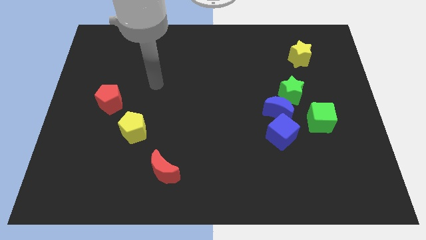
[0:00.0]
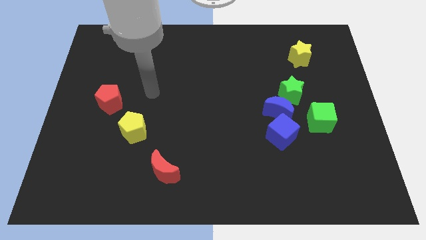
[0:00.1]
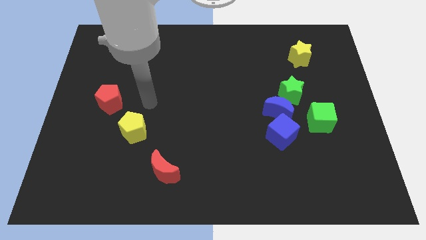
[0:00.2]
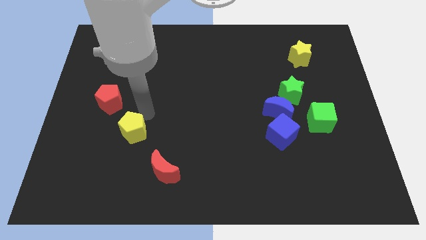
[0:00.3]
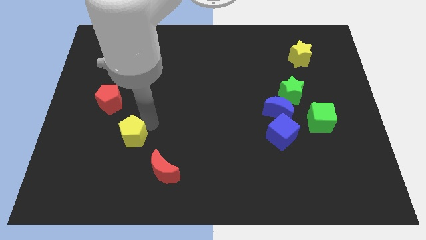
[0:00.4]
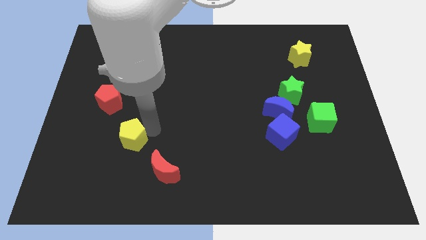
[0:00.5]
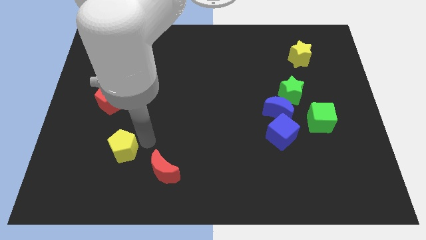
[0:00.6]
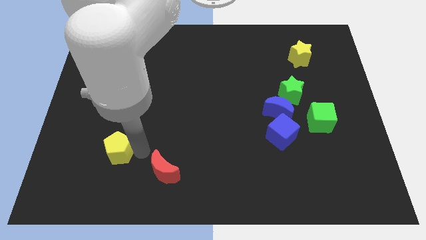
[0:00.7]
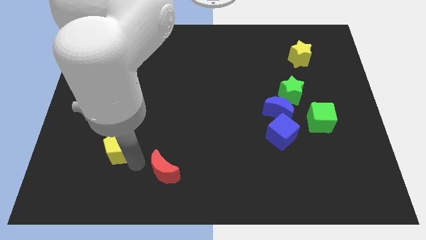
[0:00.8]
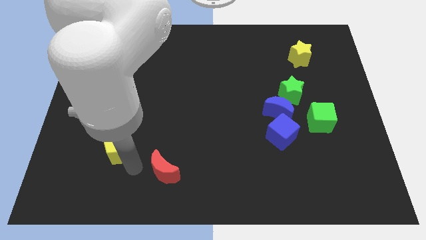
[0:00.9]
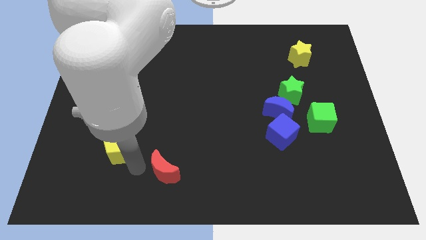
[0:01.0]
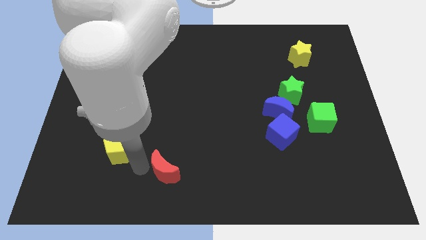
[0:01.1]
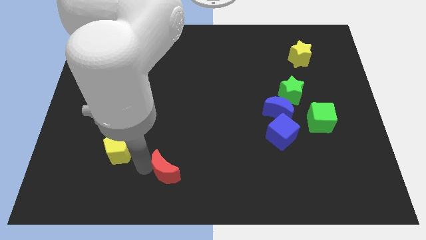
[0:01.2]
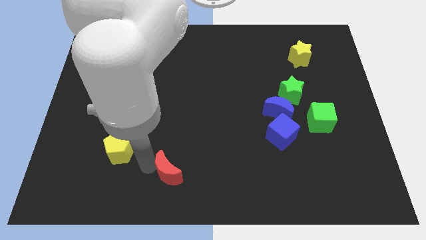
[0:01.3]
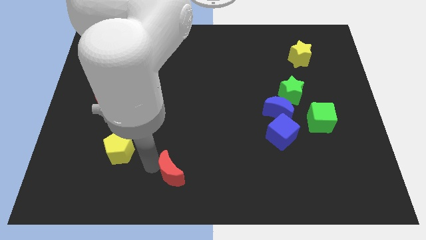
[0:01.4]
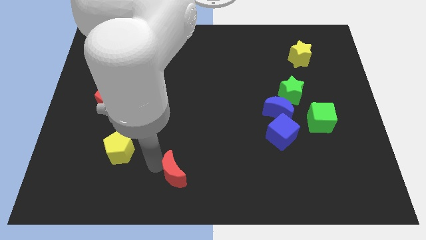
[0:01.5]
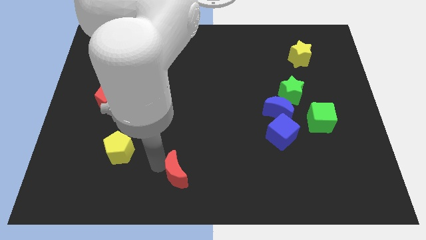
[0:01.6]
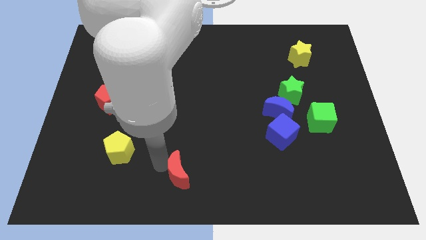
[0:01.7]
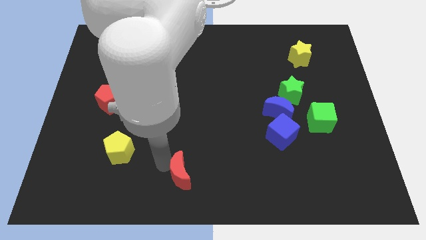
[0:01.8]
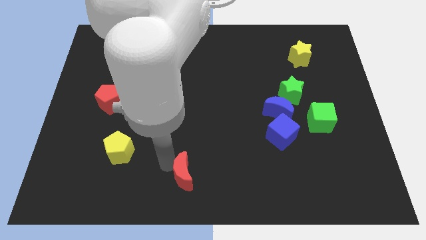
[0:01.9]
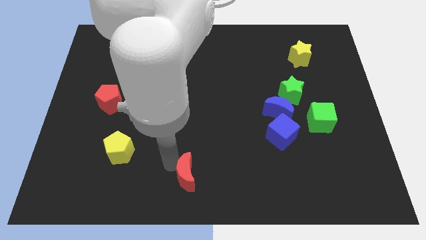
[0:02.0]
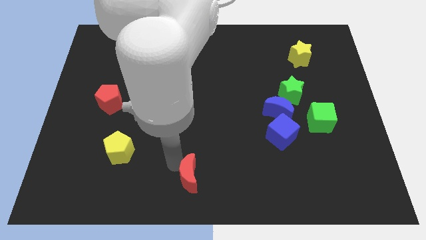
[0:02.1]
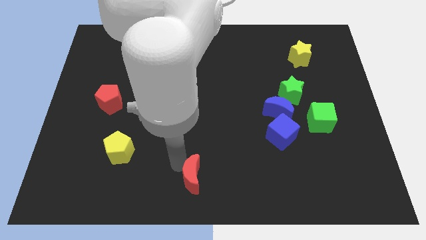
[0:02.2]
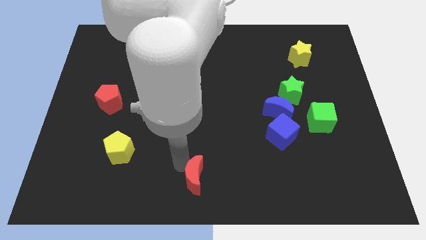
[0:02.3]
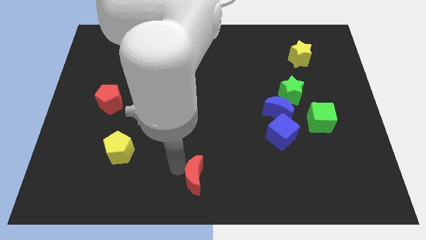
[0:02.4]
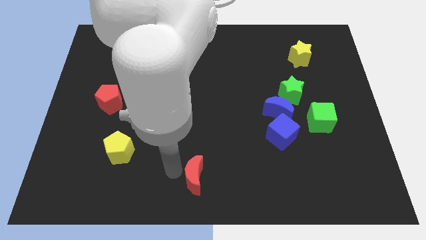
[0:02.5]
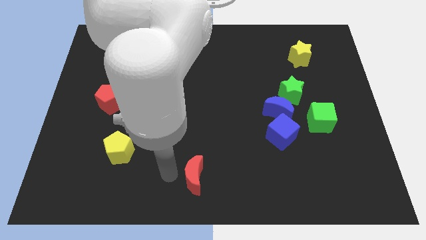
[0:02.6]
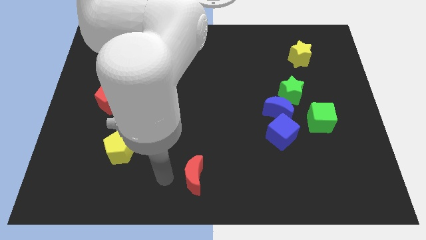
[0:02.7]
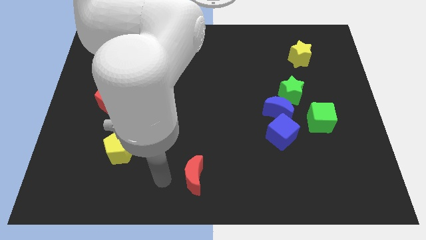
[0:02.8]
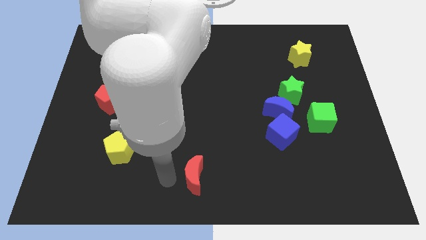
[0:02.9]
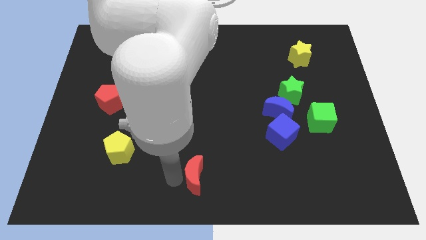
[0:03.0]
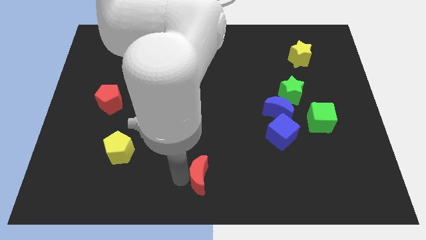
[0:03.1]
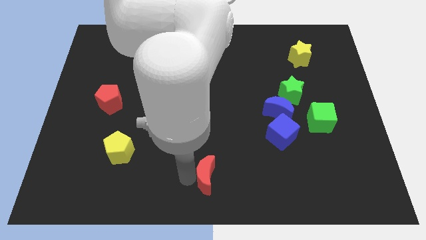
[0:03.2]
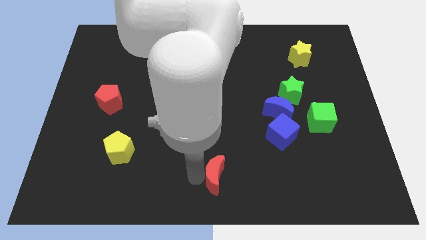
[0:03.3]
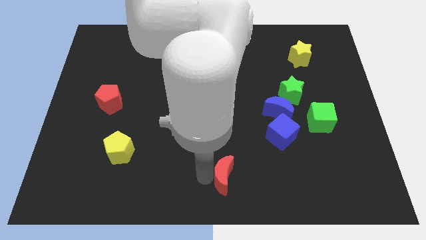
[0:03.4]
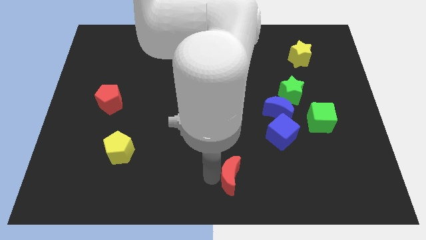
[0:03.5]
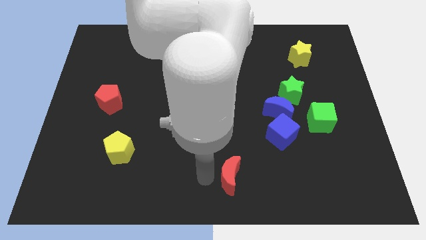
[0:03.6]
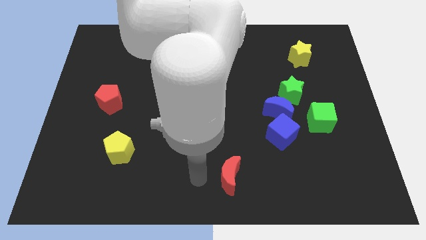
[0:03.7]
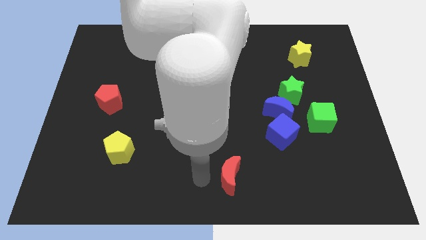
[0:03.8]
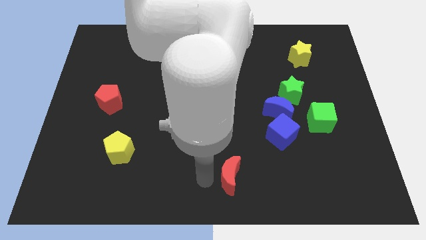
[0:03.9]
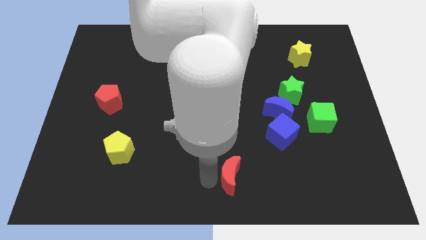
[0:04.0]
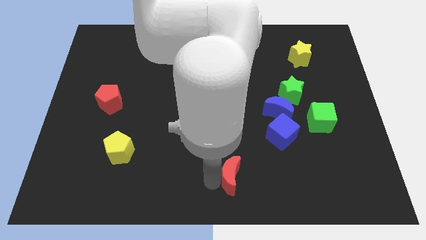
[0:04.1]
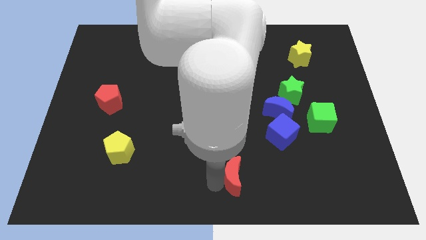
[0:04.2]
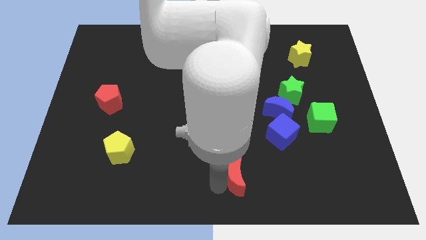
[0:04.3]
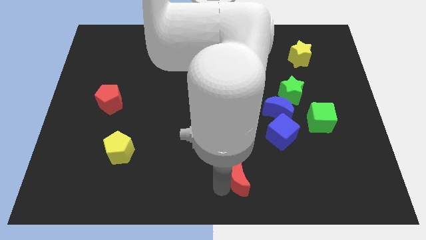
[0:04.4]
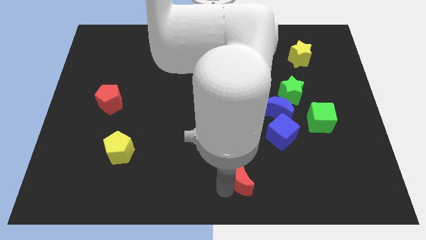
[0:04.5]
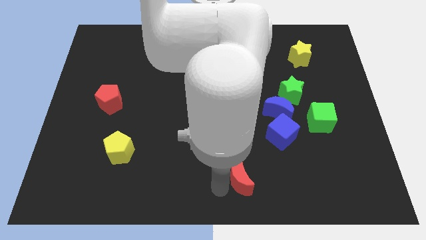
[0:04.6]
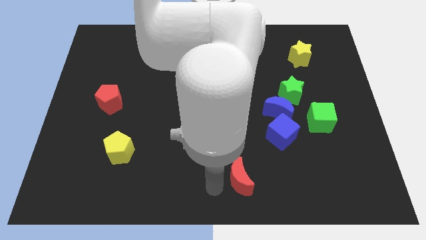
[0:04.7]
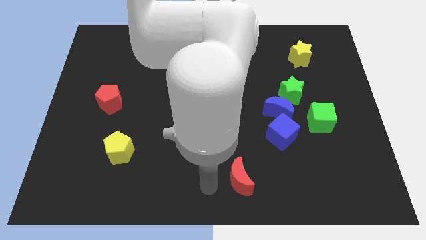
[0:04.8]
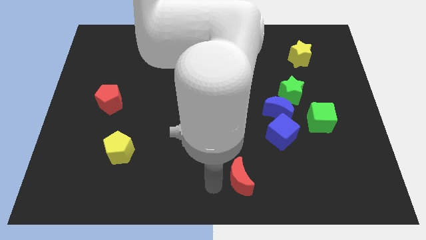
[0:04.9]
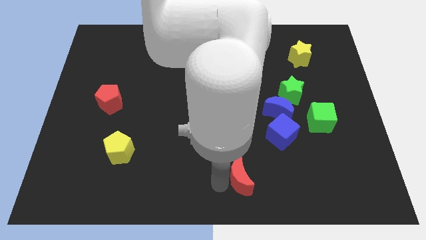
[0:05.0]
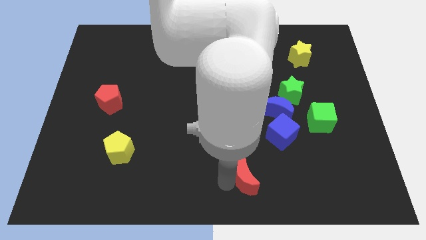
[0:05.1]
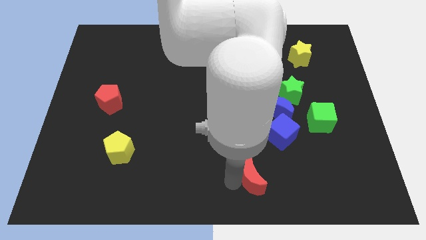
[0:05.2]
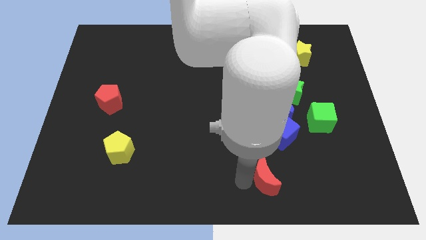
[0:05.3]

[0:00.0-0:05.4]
slide the red moon to the right

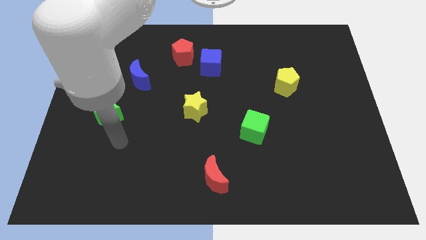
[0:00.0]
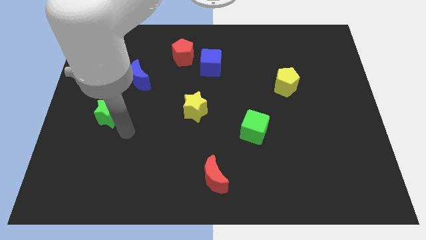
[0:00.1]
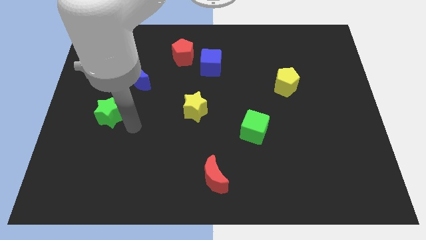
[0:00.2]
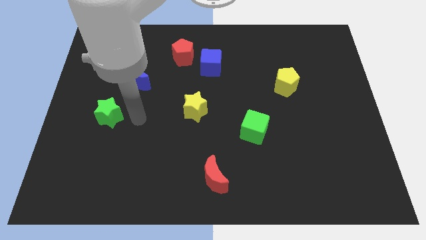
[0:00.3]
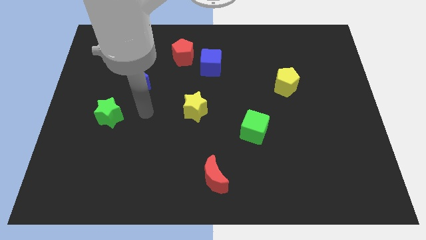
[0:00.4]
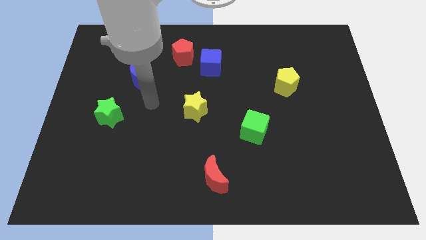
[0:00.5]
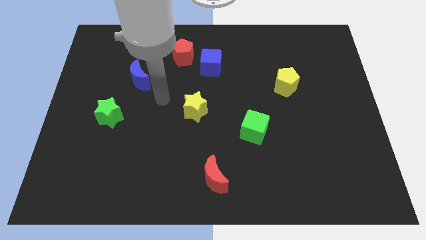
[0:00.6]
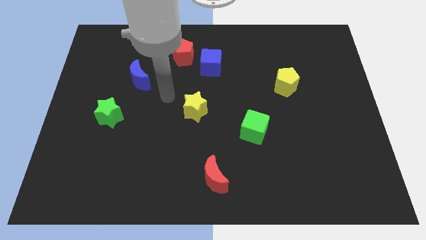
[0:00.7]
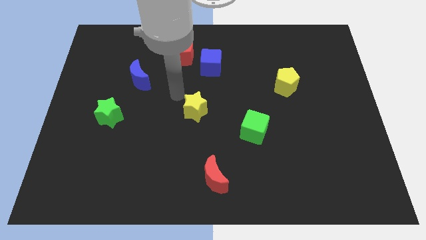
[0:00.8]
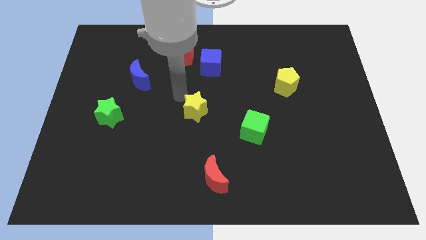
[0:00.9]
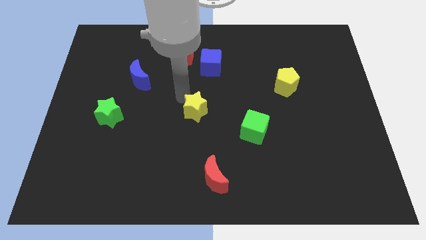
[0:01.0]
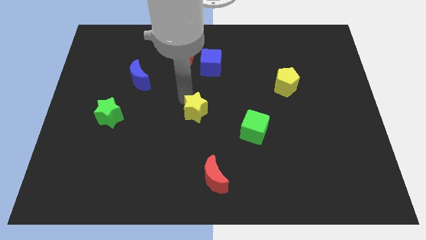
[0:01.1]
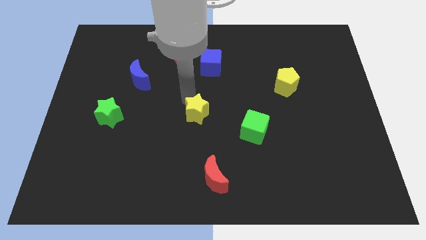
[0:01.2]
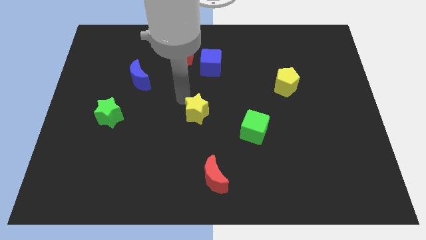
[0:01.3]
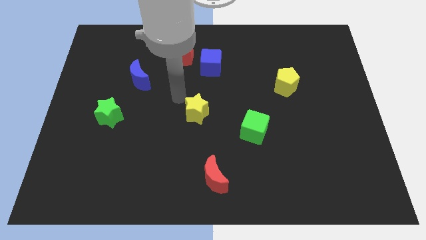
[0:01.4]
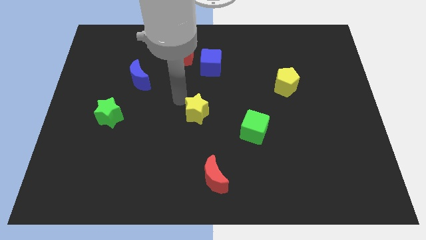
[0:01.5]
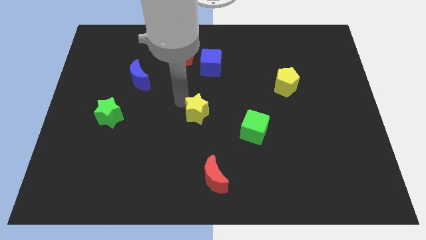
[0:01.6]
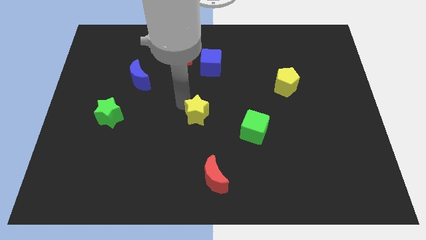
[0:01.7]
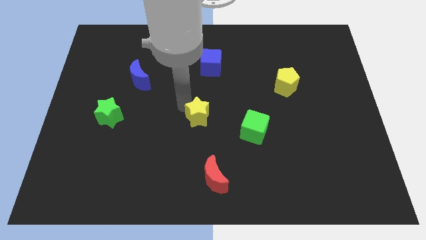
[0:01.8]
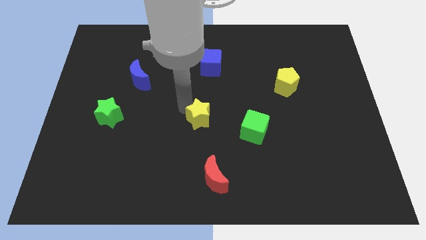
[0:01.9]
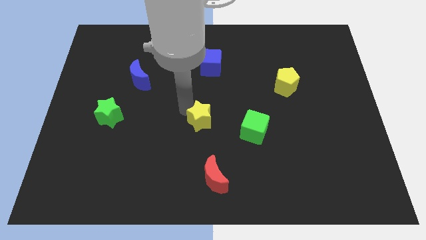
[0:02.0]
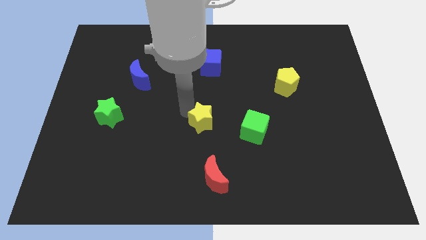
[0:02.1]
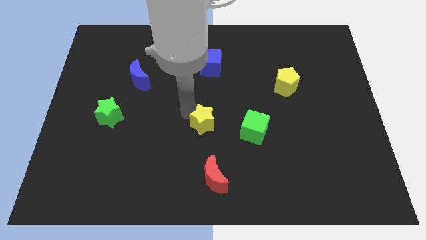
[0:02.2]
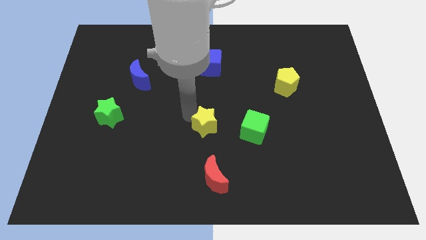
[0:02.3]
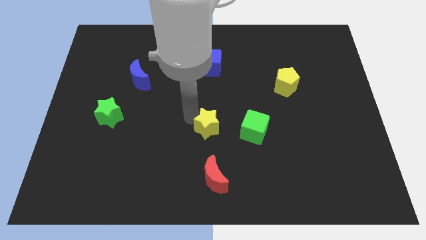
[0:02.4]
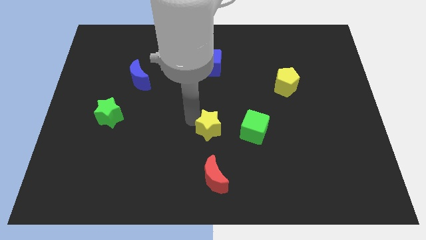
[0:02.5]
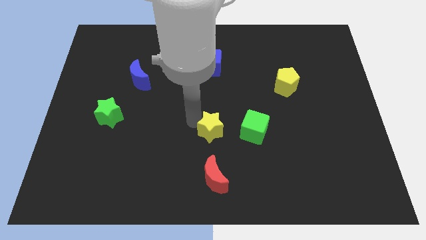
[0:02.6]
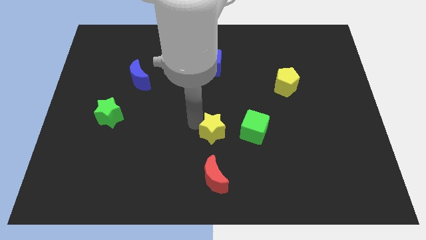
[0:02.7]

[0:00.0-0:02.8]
slightly slide the yellow star downwards and right diagonally

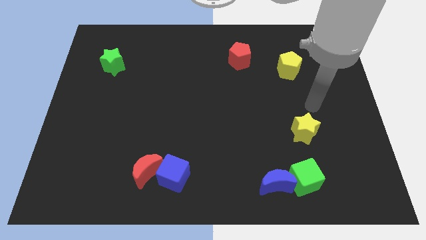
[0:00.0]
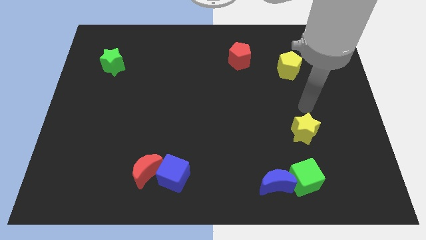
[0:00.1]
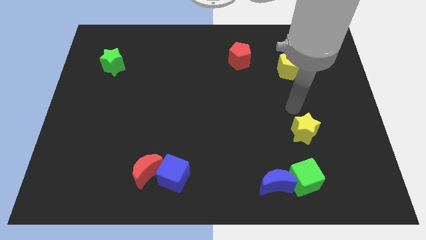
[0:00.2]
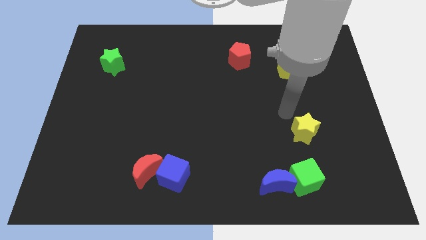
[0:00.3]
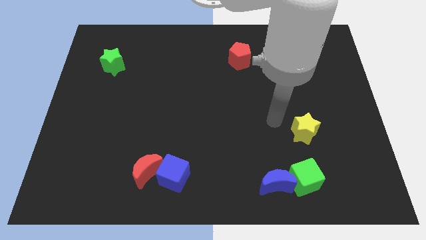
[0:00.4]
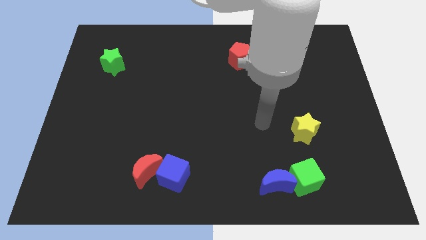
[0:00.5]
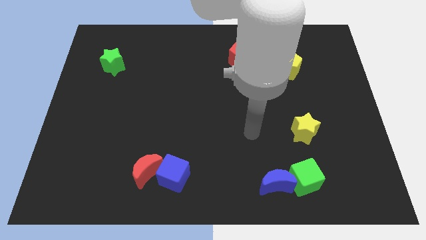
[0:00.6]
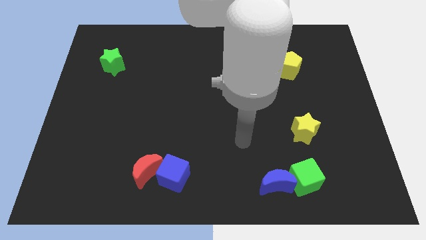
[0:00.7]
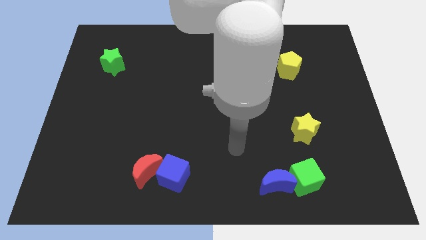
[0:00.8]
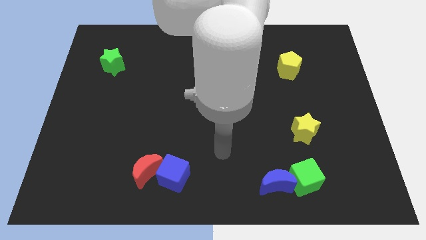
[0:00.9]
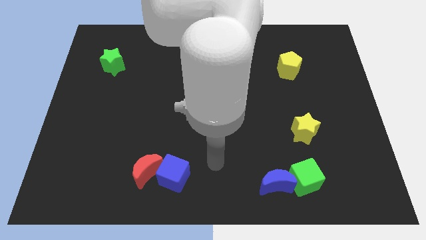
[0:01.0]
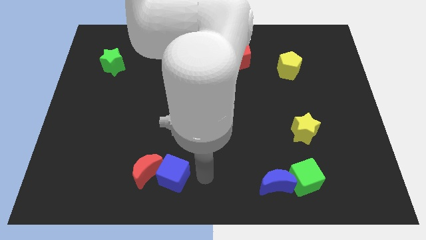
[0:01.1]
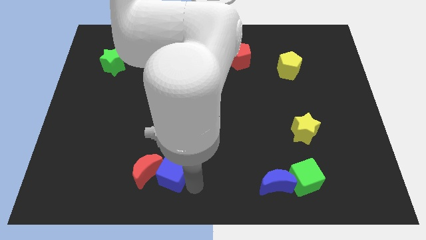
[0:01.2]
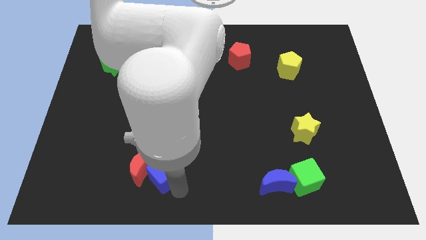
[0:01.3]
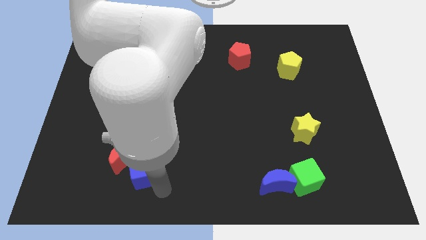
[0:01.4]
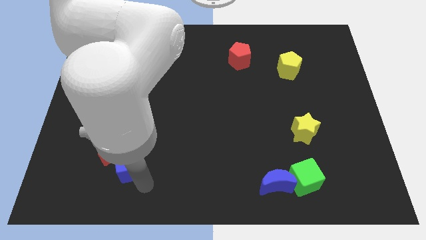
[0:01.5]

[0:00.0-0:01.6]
slightly move the red moon diagonally upwards and left
